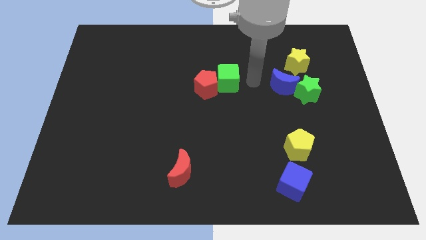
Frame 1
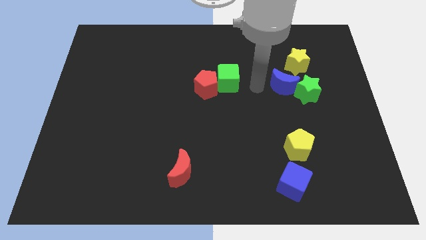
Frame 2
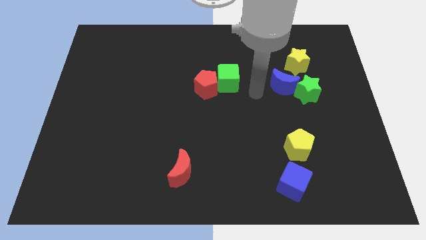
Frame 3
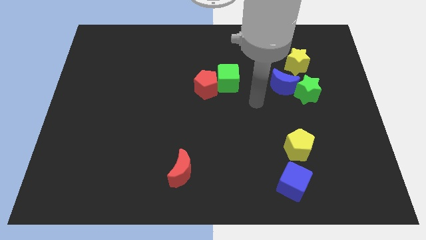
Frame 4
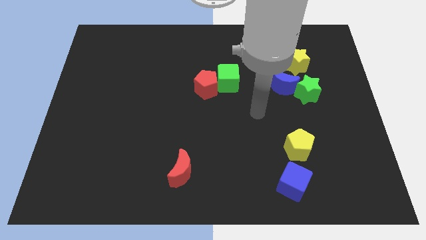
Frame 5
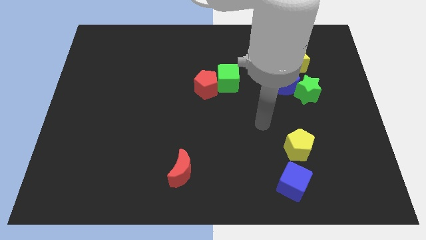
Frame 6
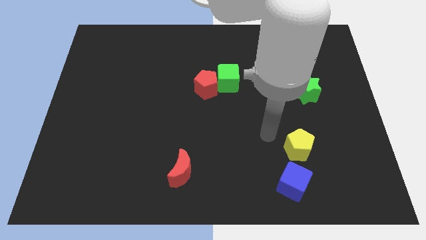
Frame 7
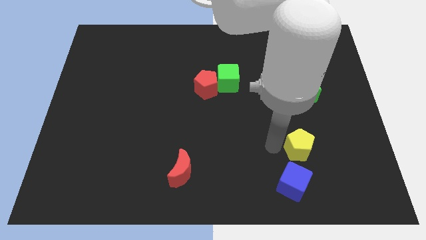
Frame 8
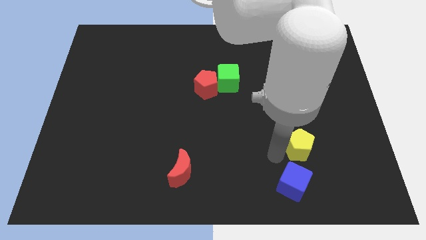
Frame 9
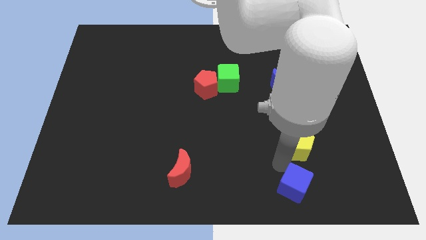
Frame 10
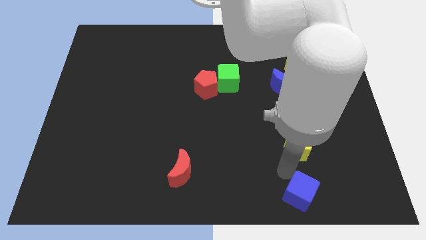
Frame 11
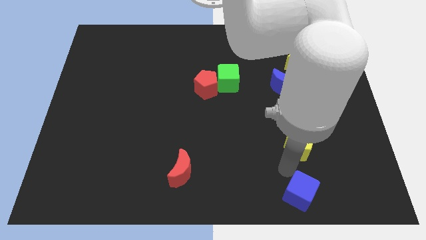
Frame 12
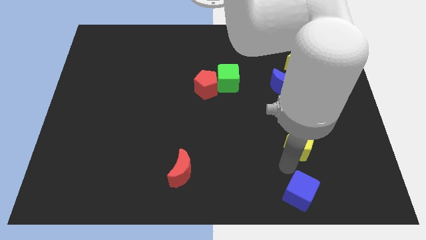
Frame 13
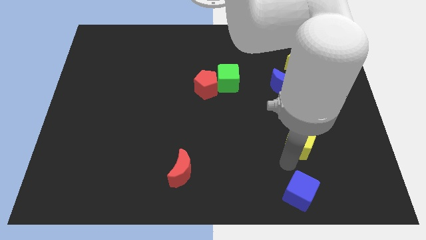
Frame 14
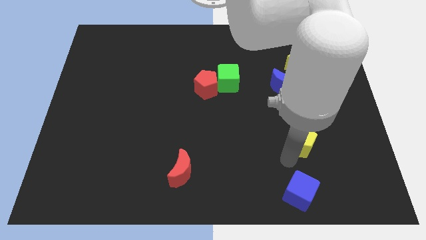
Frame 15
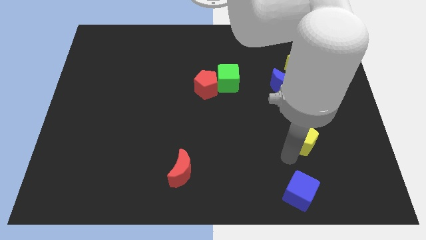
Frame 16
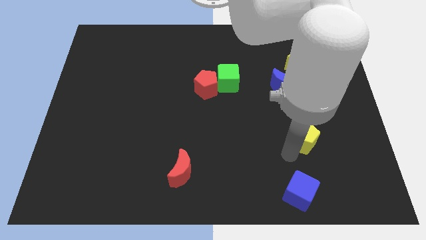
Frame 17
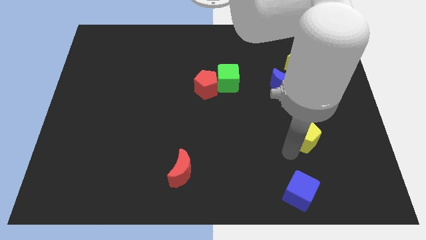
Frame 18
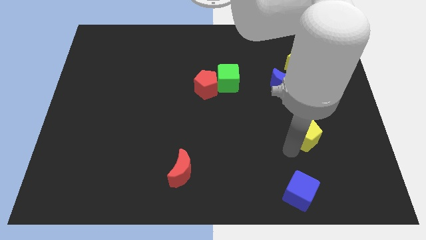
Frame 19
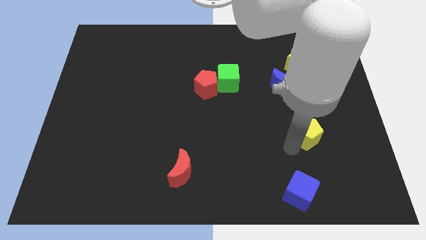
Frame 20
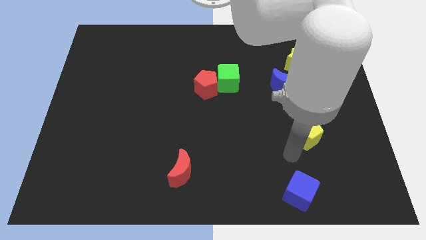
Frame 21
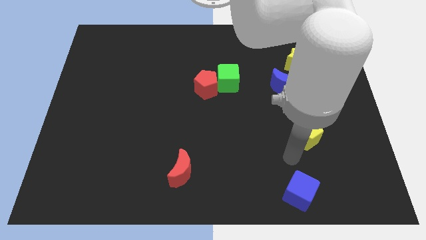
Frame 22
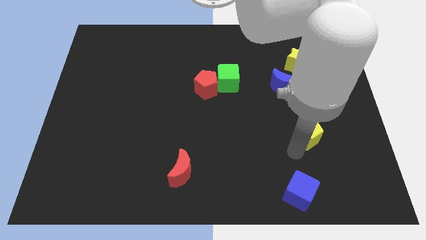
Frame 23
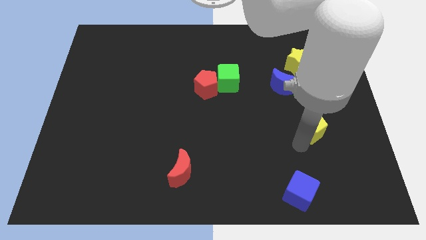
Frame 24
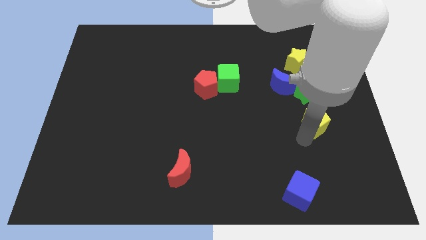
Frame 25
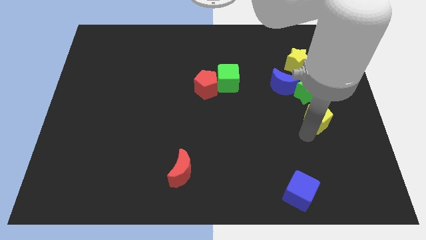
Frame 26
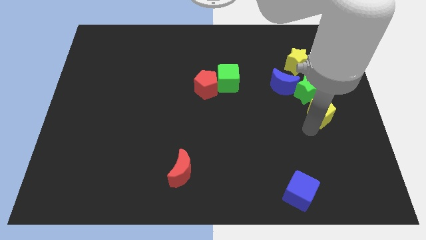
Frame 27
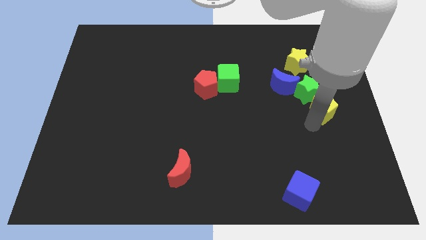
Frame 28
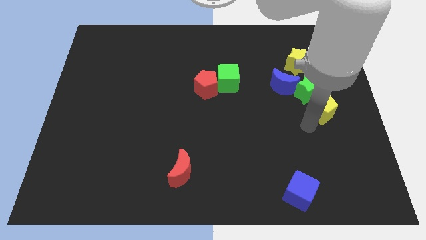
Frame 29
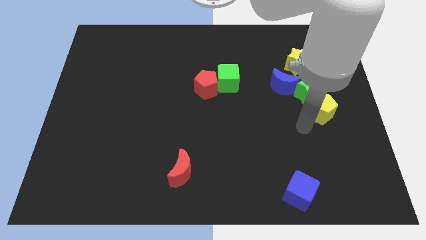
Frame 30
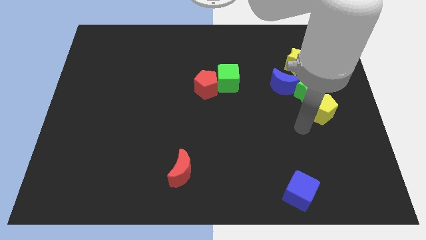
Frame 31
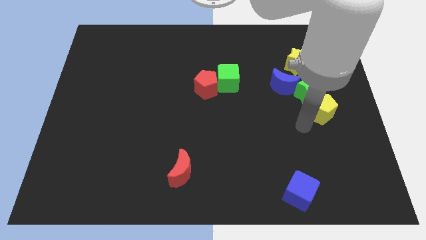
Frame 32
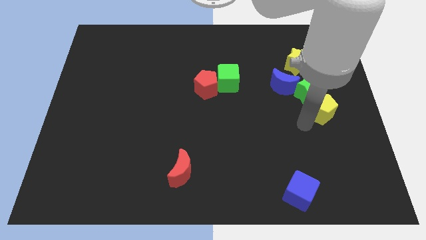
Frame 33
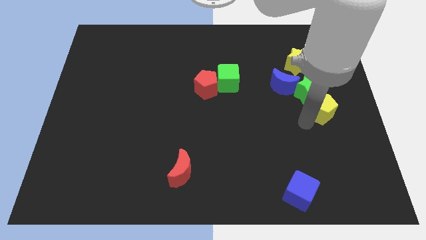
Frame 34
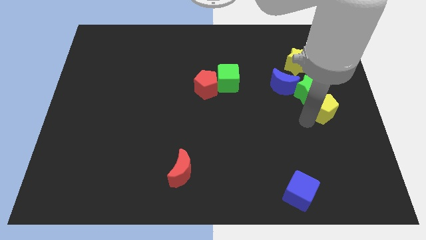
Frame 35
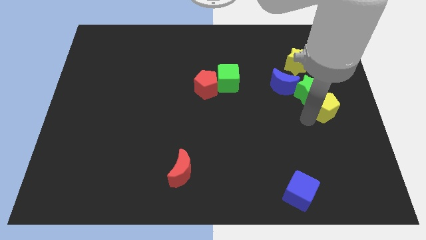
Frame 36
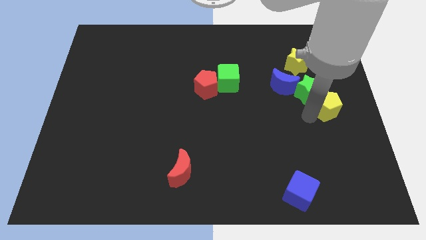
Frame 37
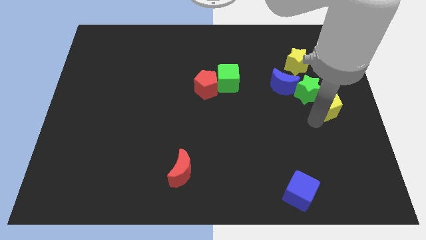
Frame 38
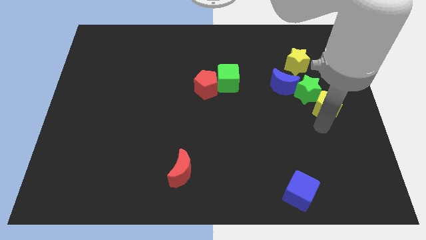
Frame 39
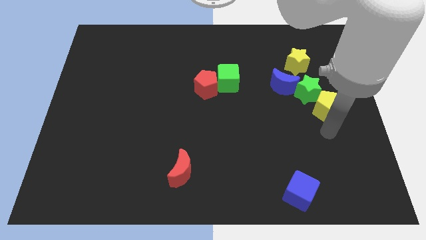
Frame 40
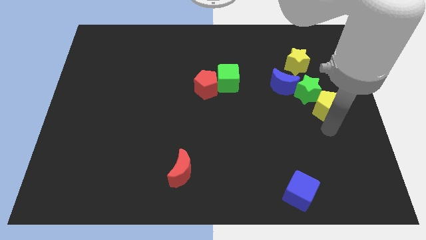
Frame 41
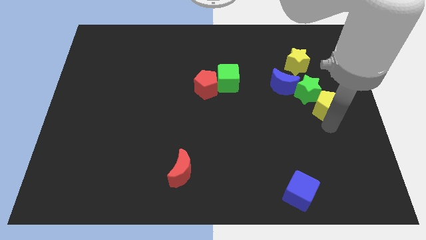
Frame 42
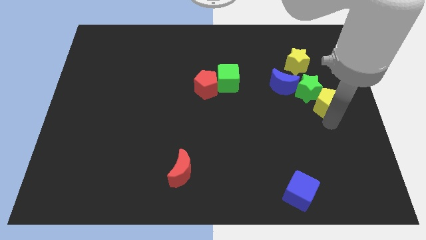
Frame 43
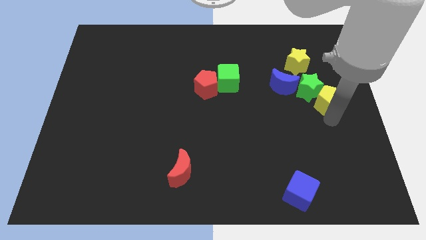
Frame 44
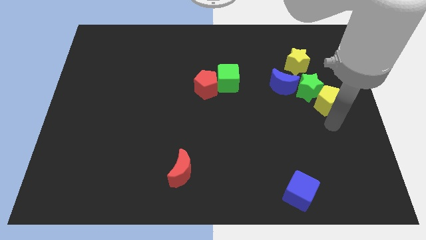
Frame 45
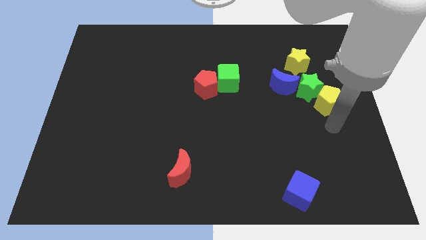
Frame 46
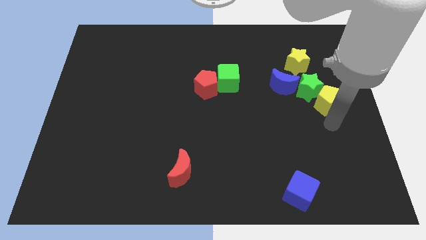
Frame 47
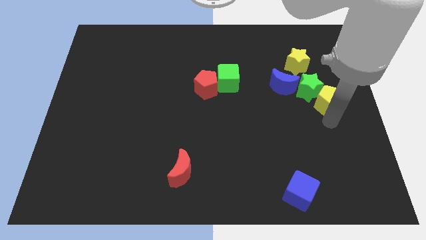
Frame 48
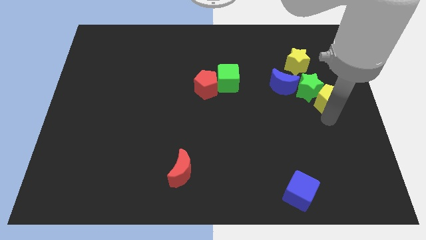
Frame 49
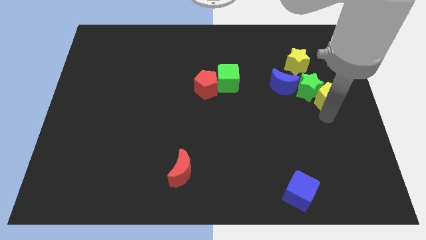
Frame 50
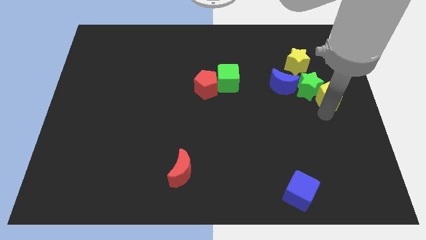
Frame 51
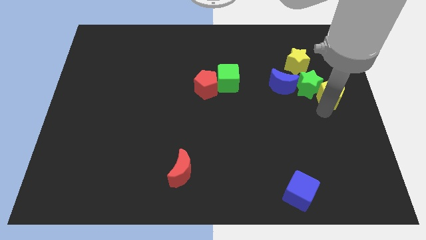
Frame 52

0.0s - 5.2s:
slide the yellow pentagon diagonally down and to the right of the yellow star

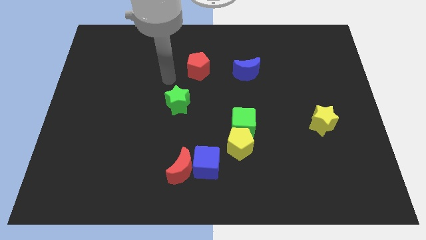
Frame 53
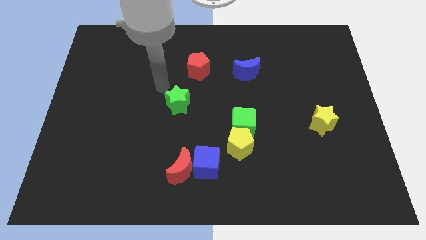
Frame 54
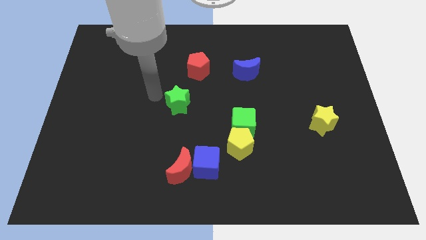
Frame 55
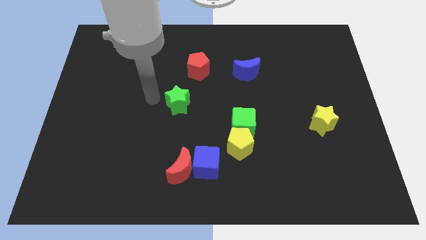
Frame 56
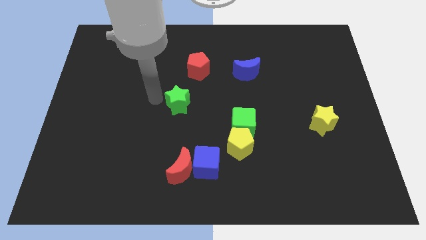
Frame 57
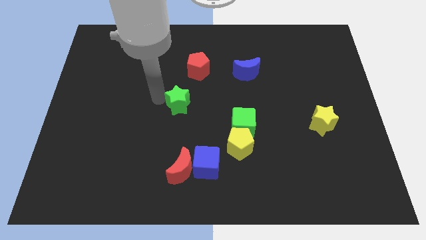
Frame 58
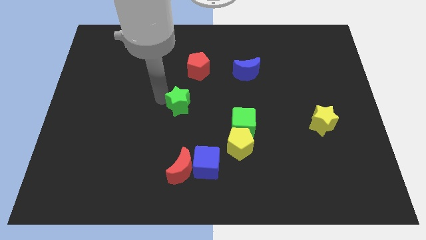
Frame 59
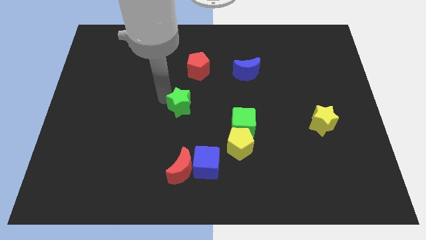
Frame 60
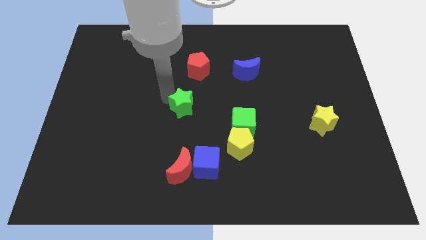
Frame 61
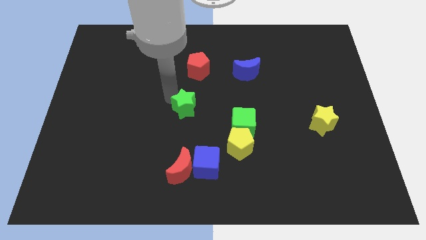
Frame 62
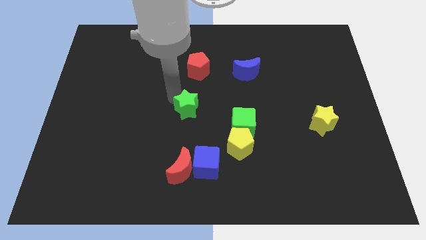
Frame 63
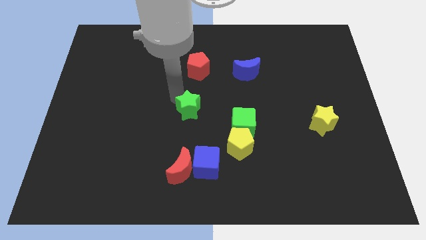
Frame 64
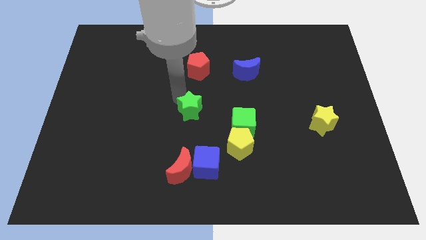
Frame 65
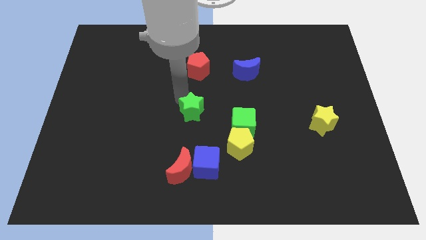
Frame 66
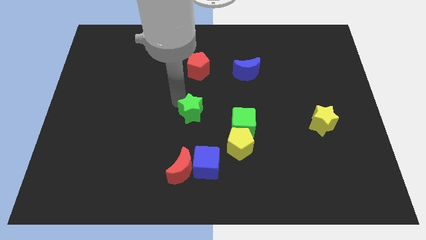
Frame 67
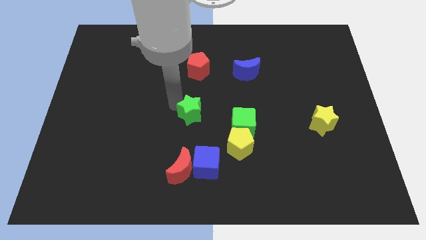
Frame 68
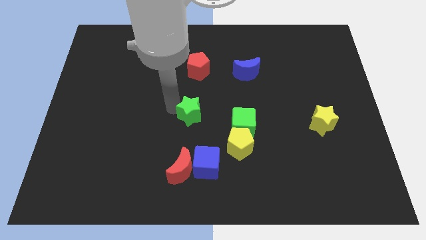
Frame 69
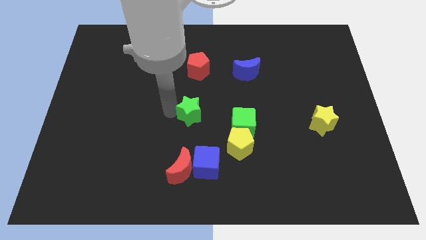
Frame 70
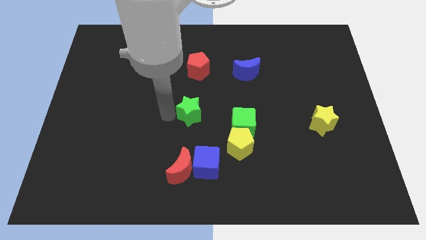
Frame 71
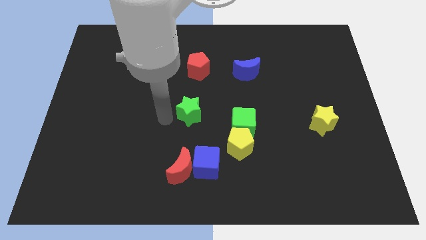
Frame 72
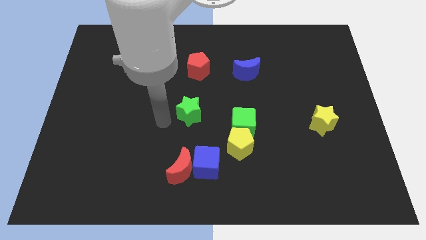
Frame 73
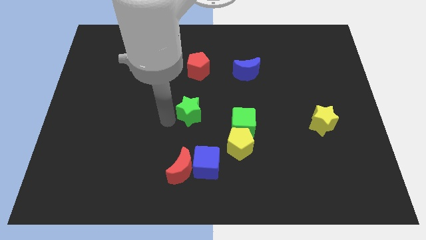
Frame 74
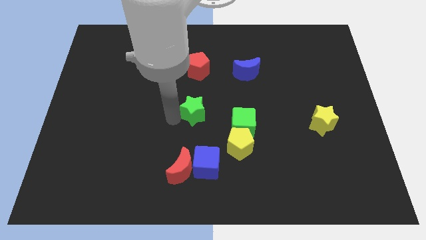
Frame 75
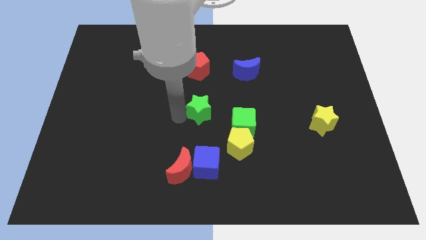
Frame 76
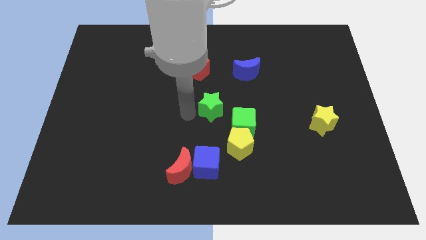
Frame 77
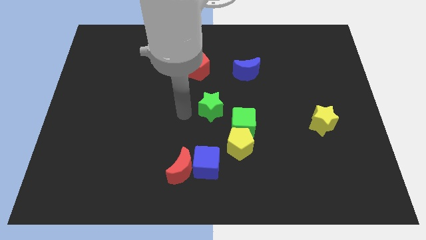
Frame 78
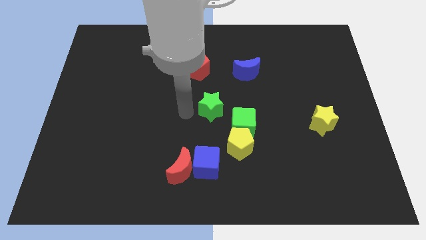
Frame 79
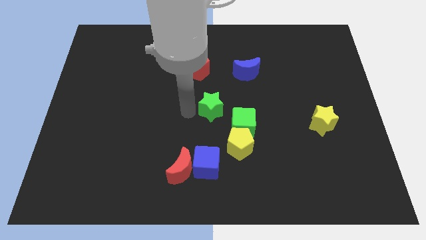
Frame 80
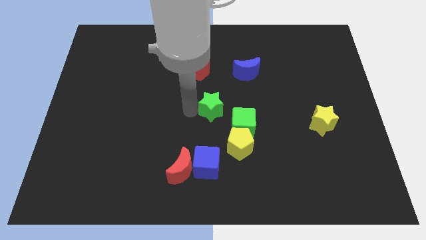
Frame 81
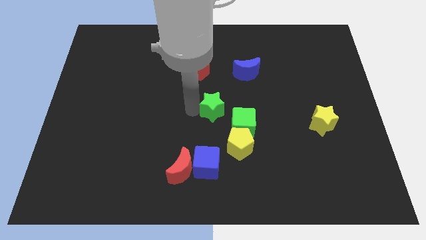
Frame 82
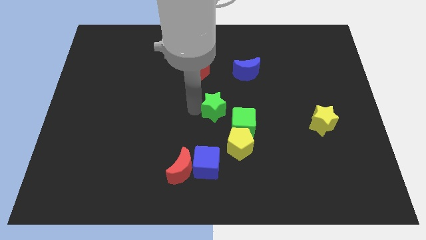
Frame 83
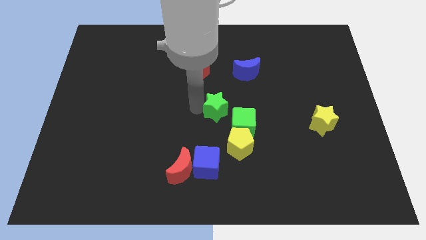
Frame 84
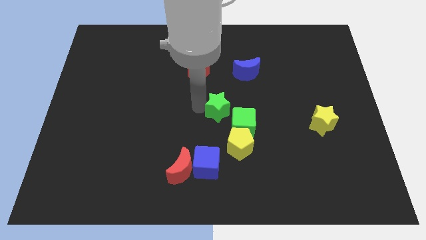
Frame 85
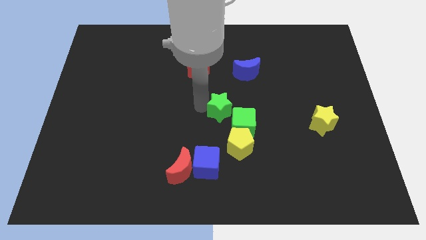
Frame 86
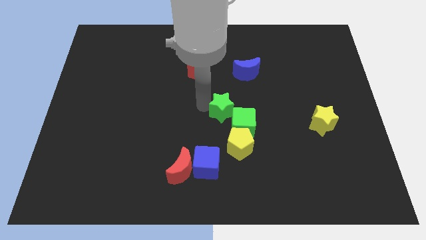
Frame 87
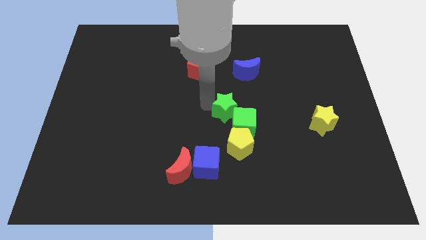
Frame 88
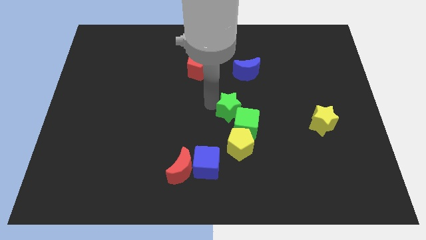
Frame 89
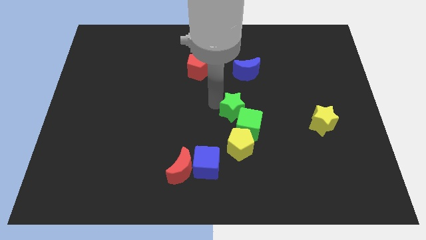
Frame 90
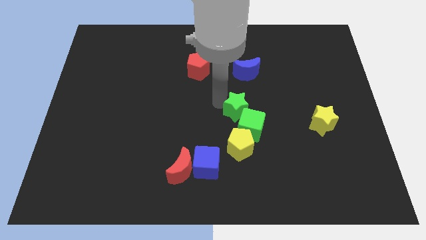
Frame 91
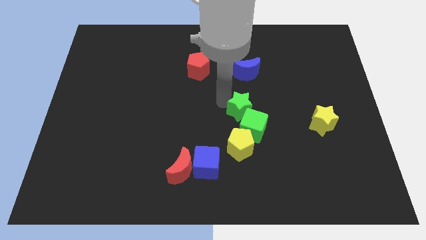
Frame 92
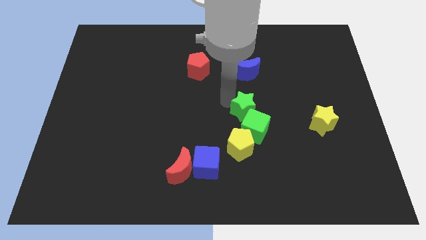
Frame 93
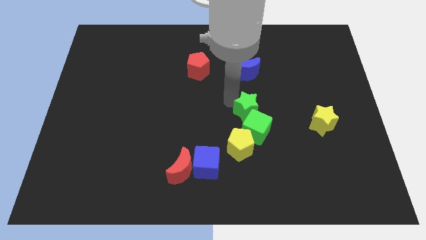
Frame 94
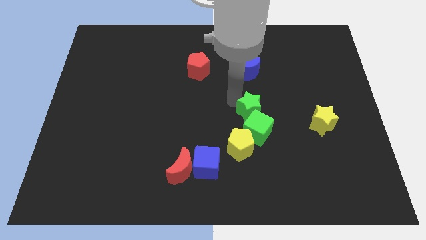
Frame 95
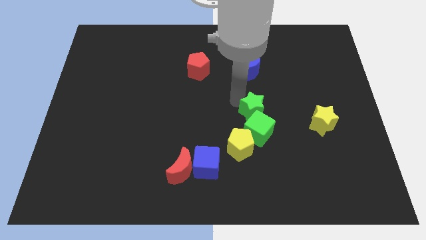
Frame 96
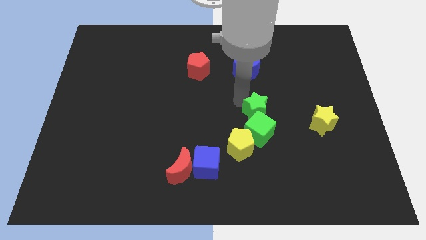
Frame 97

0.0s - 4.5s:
slide the green star diagonally up and to the right of the green cube
